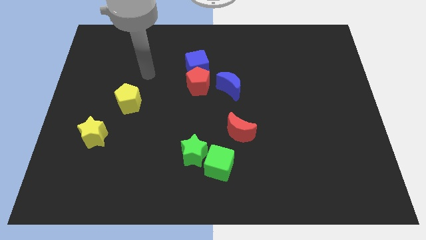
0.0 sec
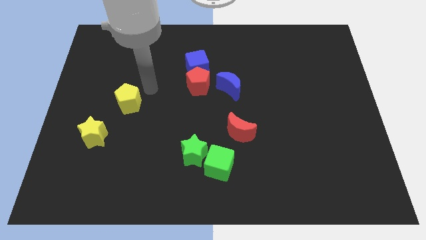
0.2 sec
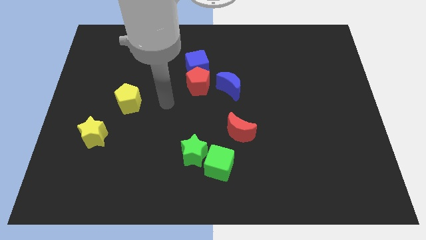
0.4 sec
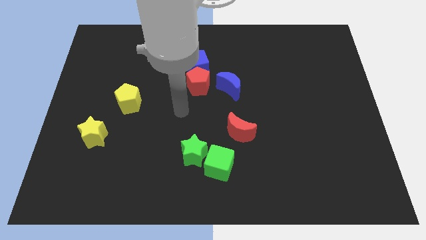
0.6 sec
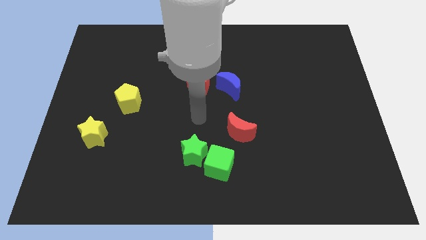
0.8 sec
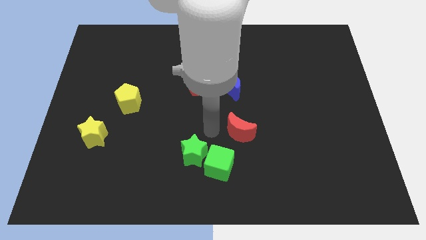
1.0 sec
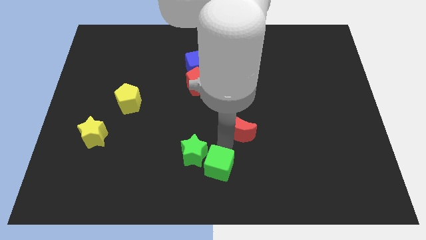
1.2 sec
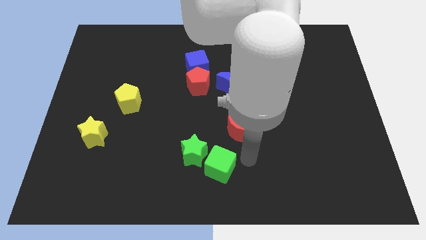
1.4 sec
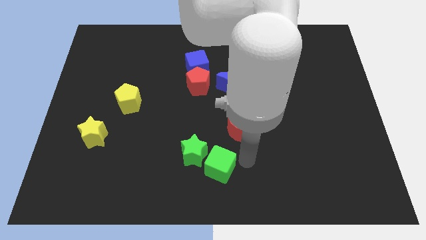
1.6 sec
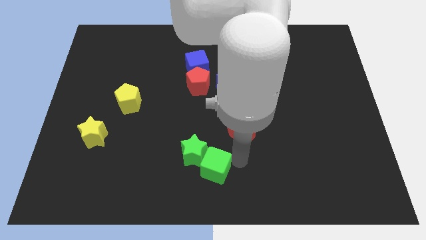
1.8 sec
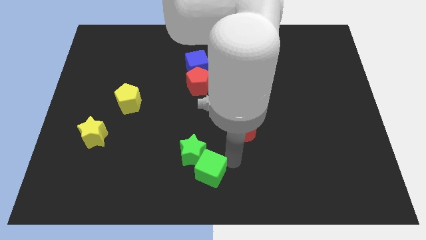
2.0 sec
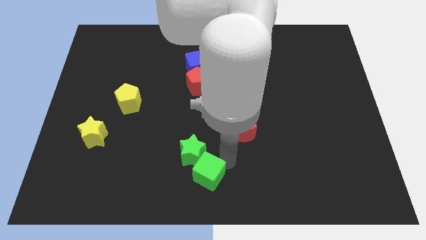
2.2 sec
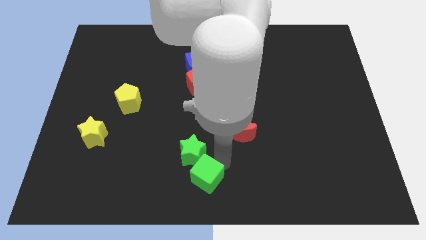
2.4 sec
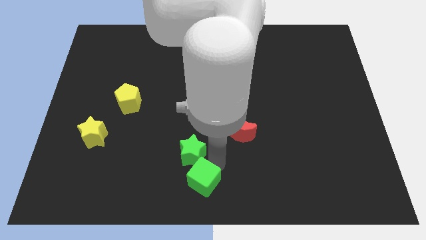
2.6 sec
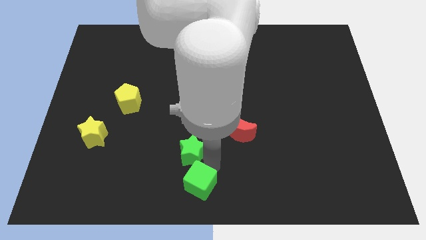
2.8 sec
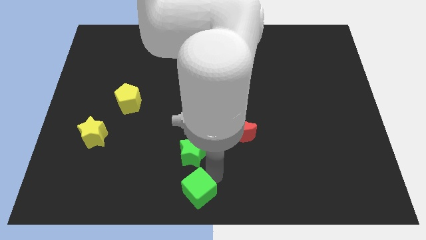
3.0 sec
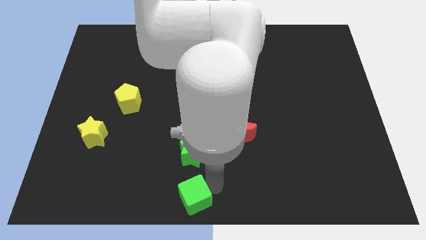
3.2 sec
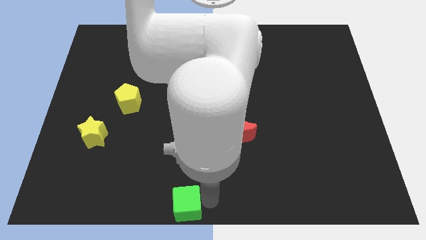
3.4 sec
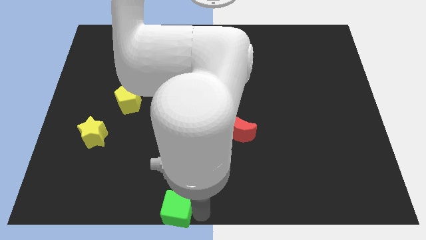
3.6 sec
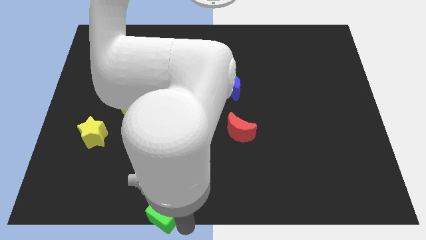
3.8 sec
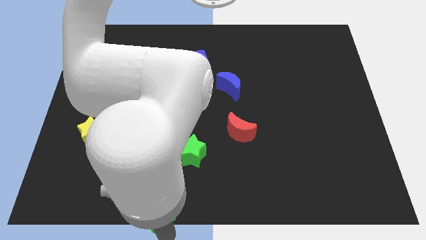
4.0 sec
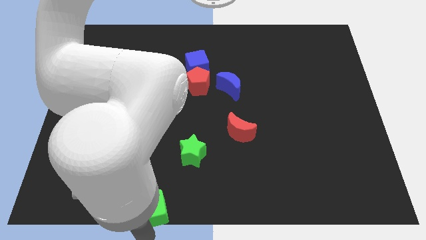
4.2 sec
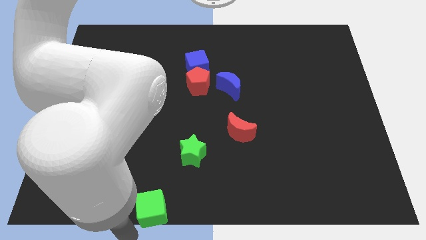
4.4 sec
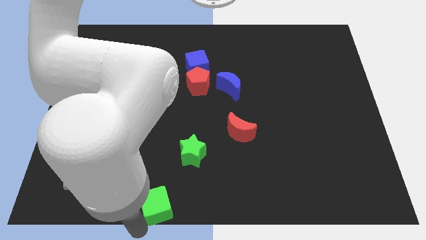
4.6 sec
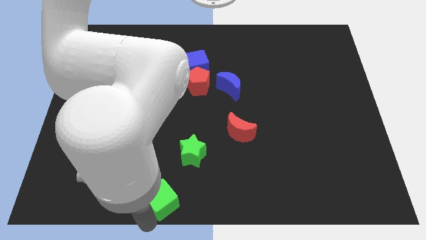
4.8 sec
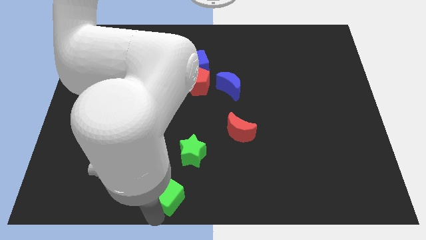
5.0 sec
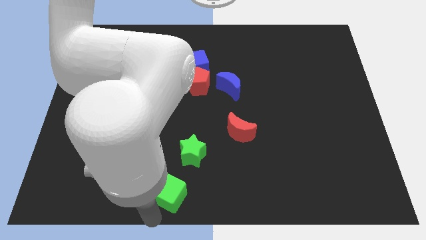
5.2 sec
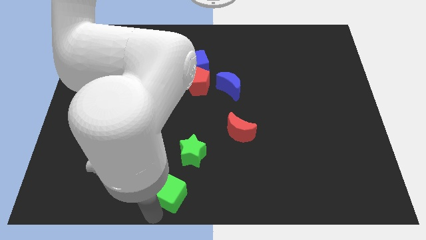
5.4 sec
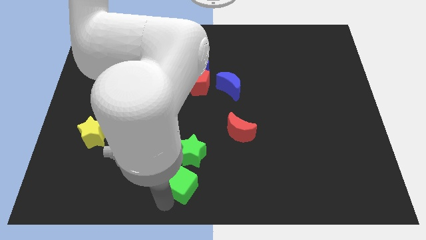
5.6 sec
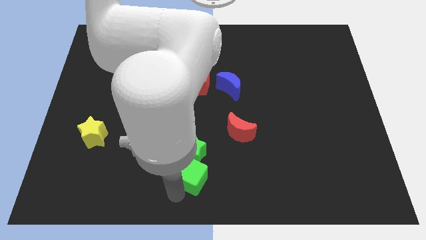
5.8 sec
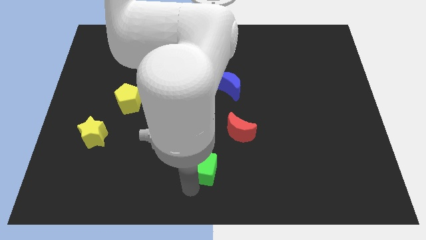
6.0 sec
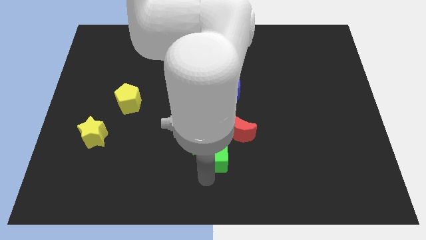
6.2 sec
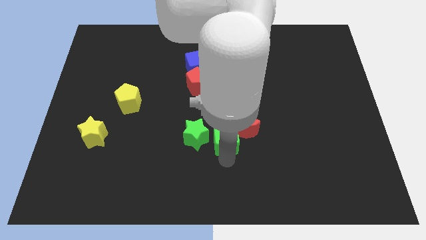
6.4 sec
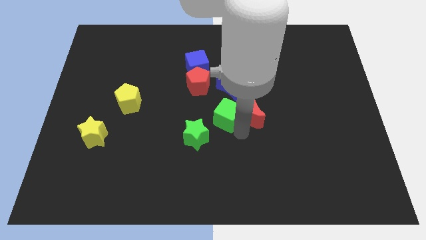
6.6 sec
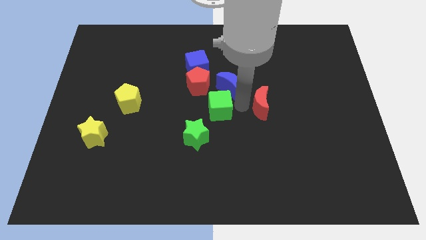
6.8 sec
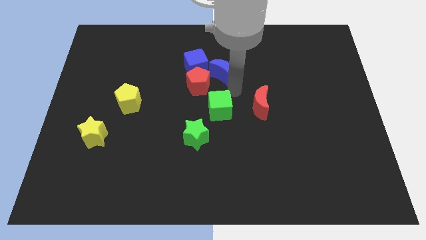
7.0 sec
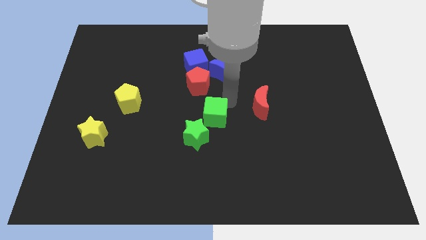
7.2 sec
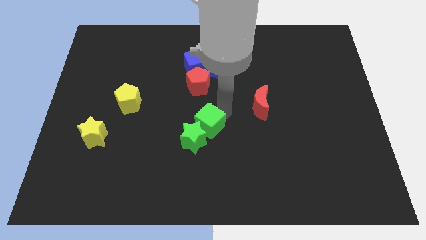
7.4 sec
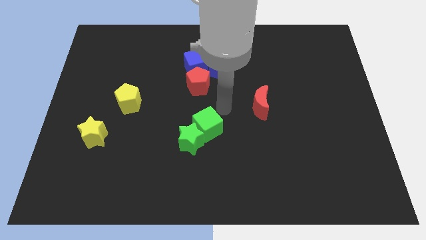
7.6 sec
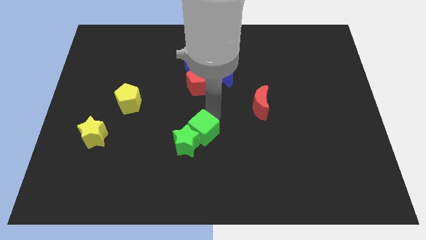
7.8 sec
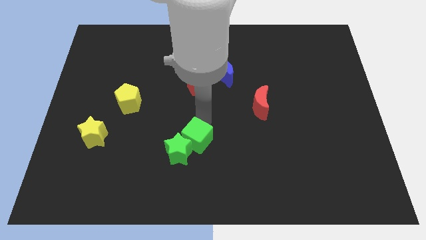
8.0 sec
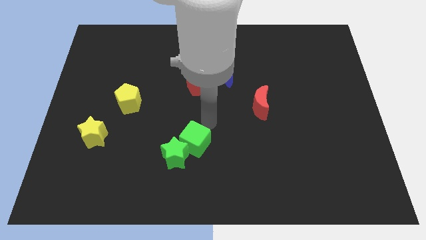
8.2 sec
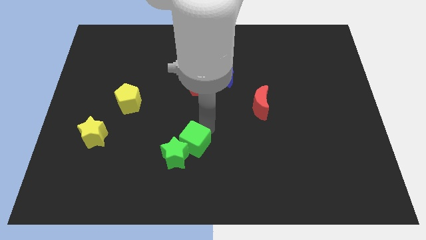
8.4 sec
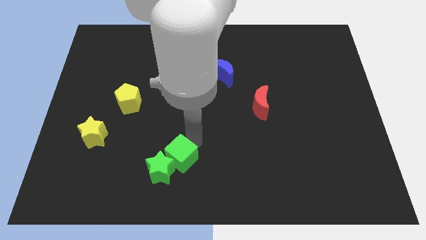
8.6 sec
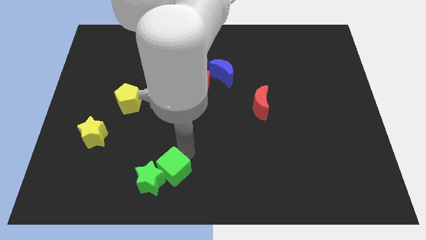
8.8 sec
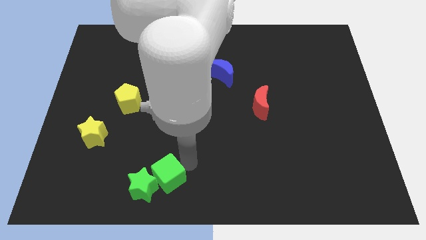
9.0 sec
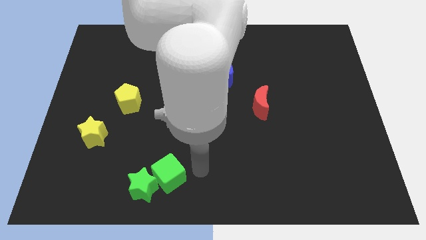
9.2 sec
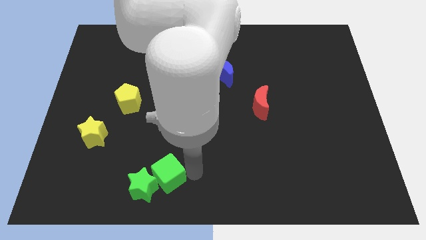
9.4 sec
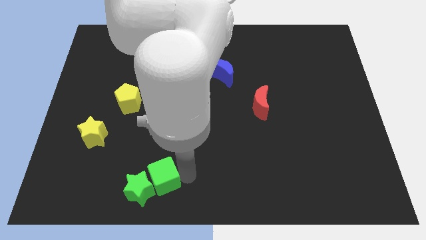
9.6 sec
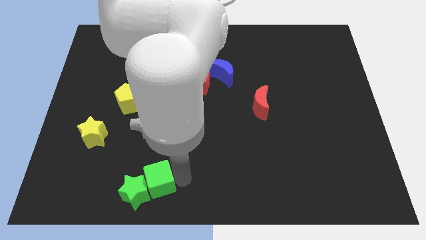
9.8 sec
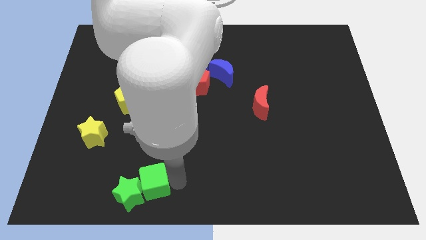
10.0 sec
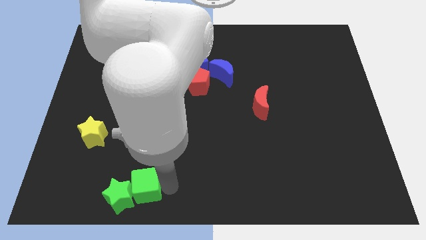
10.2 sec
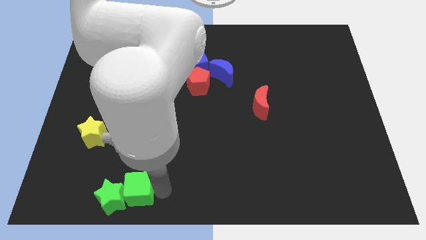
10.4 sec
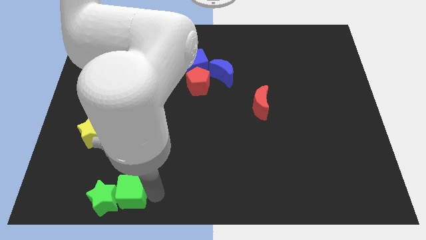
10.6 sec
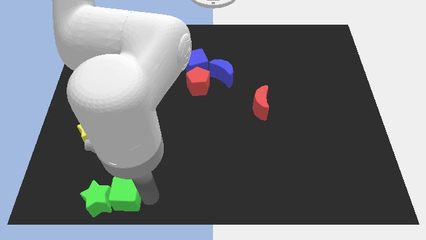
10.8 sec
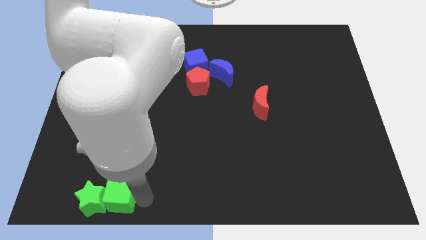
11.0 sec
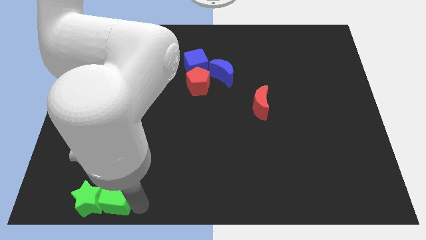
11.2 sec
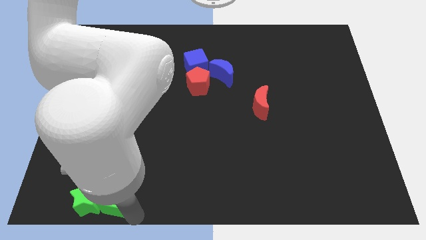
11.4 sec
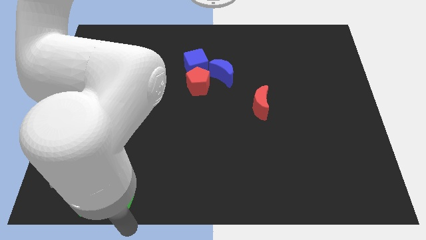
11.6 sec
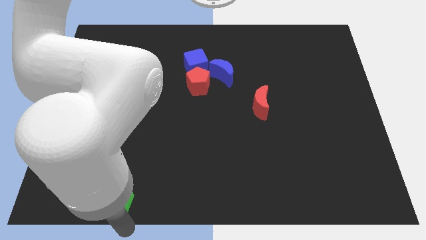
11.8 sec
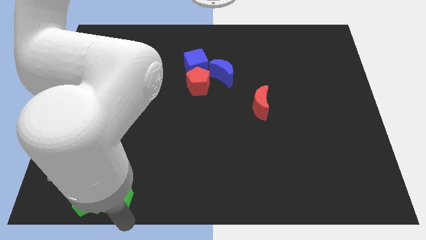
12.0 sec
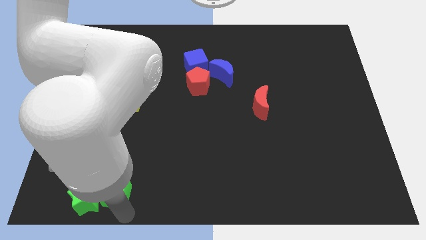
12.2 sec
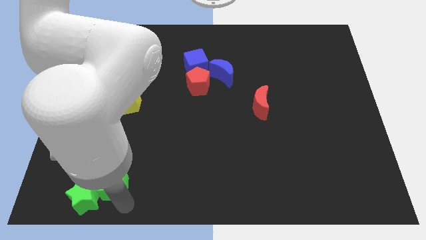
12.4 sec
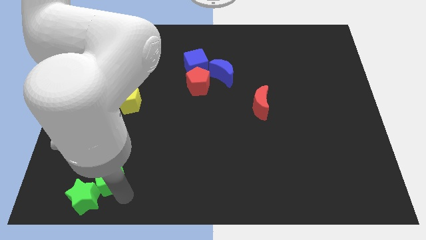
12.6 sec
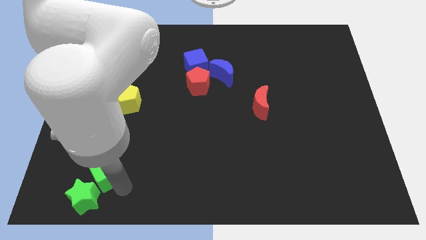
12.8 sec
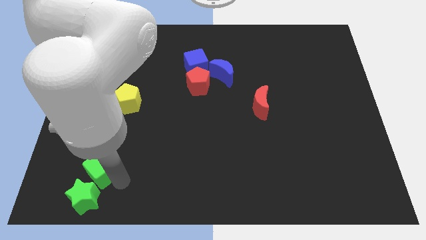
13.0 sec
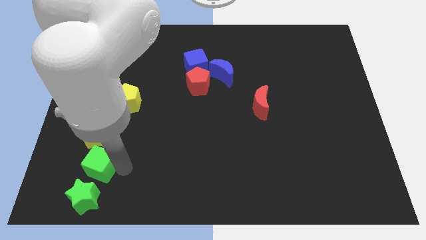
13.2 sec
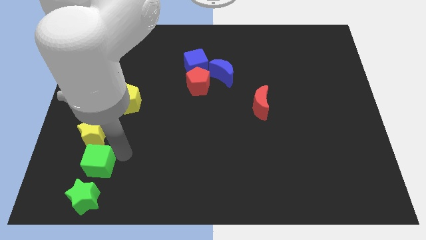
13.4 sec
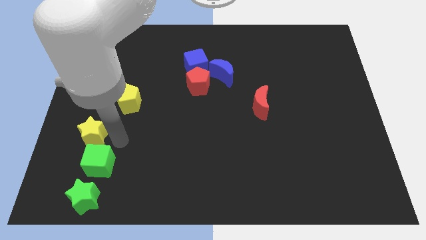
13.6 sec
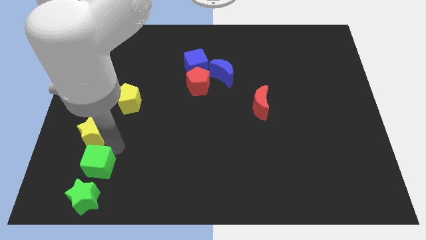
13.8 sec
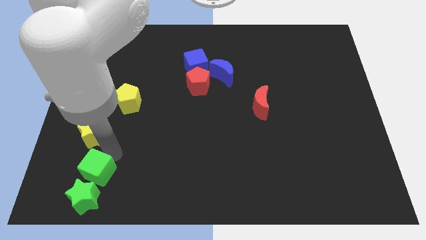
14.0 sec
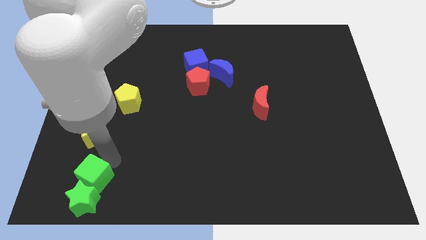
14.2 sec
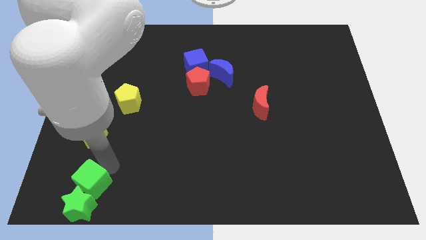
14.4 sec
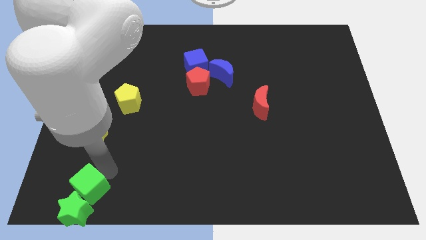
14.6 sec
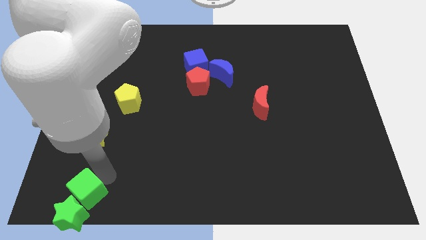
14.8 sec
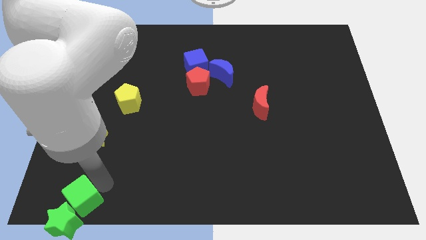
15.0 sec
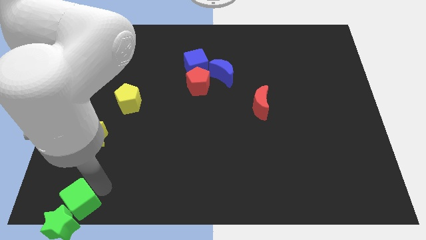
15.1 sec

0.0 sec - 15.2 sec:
put the green cube to the lower left corner
